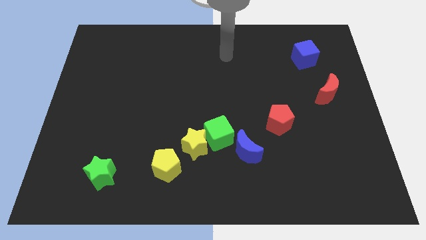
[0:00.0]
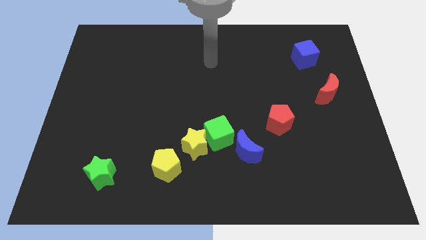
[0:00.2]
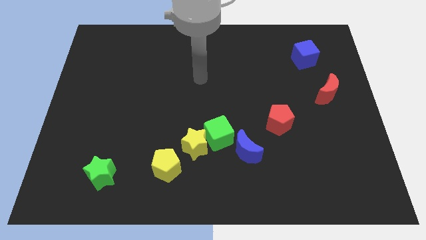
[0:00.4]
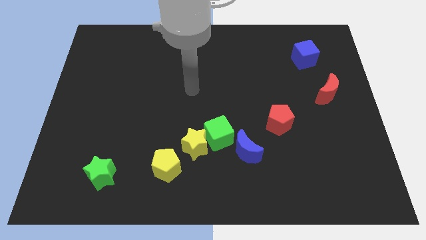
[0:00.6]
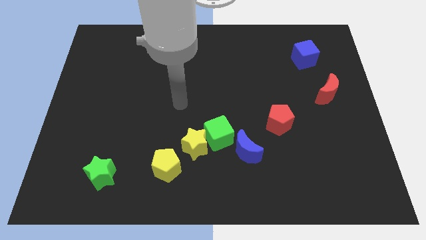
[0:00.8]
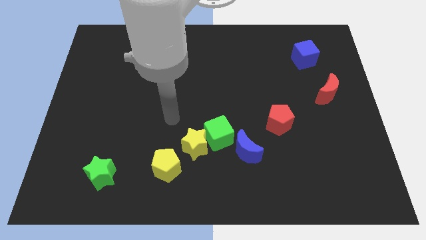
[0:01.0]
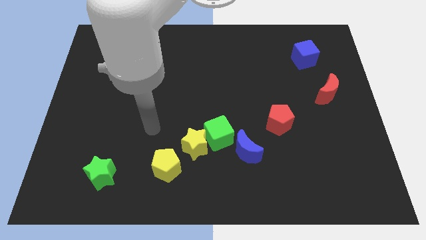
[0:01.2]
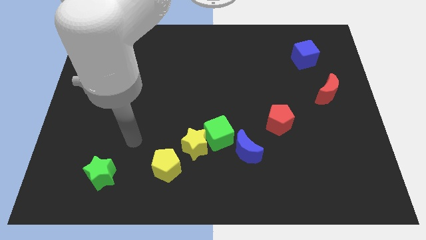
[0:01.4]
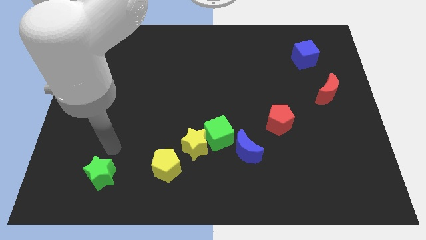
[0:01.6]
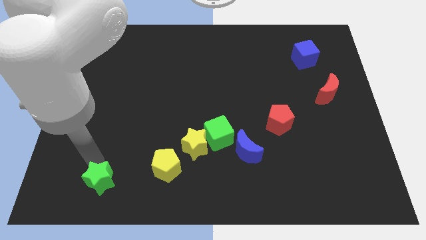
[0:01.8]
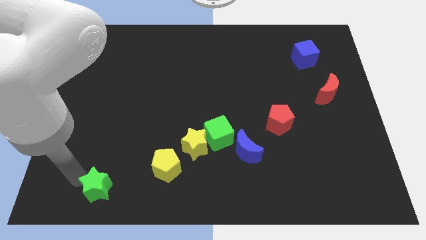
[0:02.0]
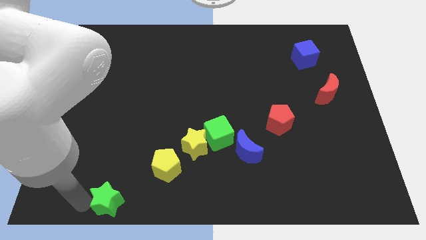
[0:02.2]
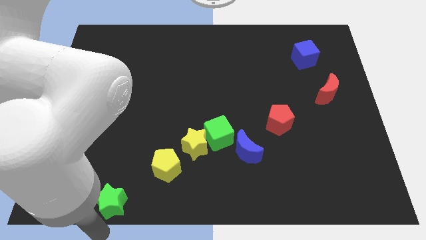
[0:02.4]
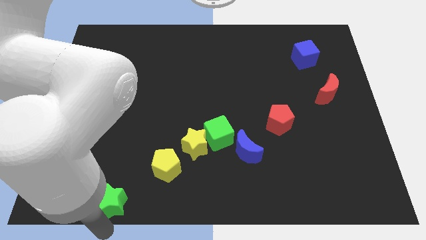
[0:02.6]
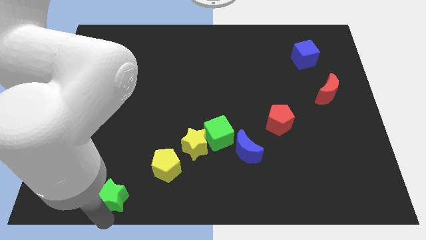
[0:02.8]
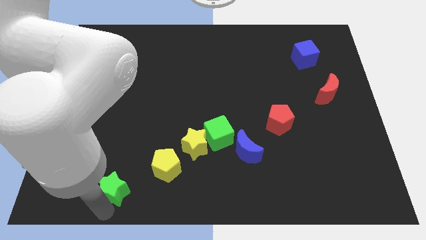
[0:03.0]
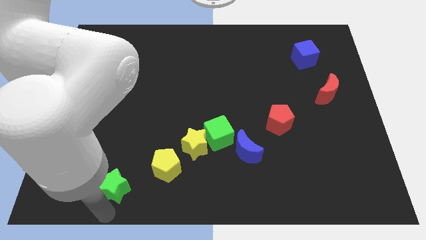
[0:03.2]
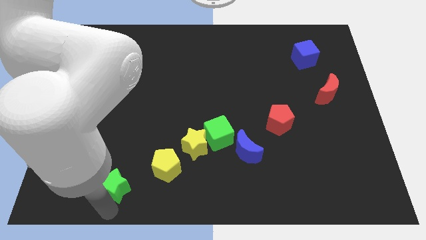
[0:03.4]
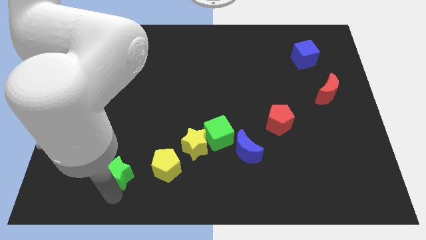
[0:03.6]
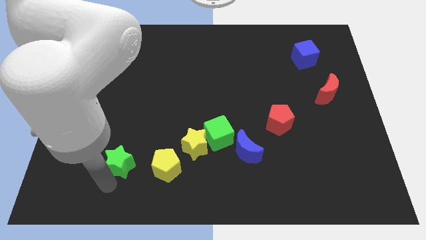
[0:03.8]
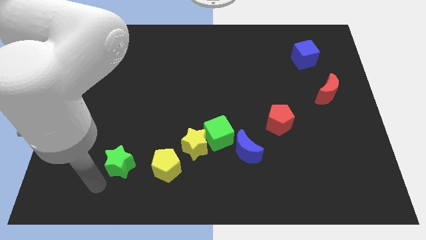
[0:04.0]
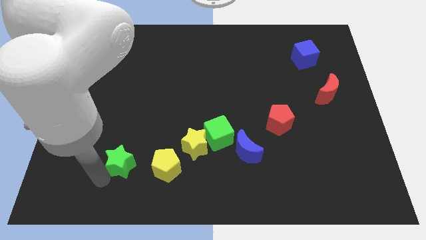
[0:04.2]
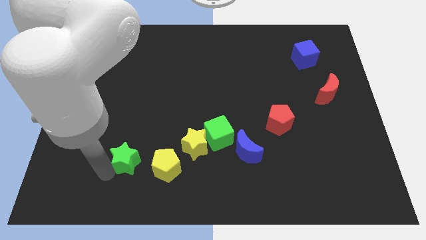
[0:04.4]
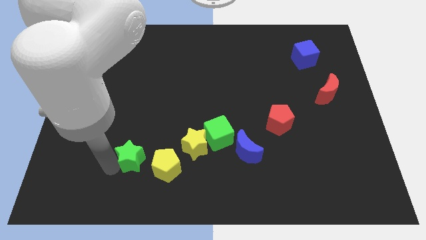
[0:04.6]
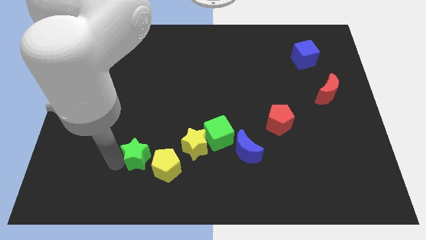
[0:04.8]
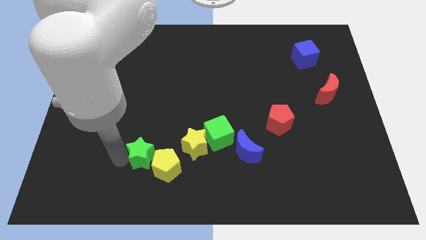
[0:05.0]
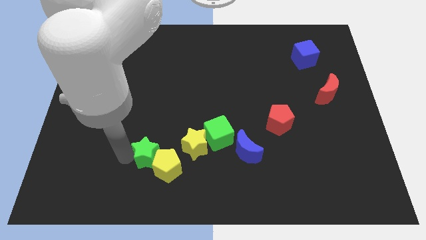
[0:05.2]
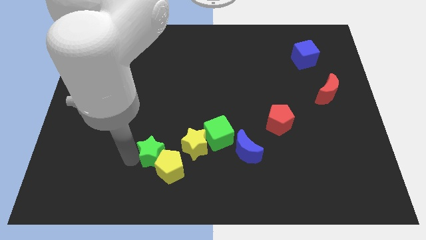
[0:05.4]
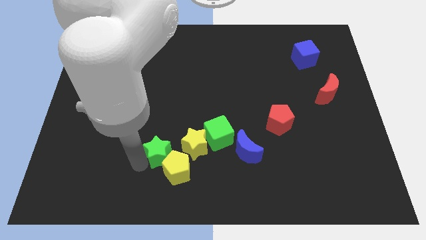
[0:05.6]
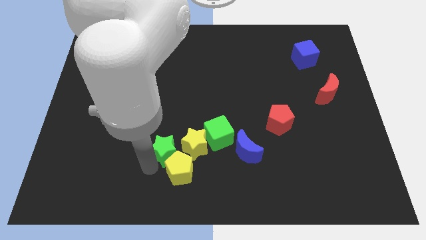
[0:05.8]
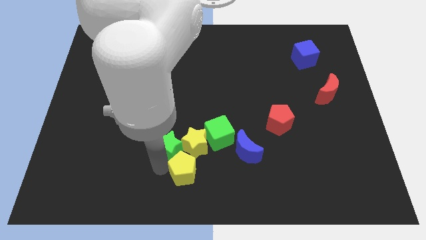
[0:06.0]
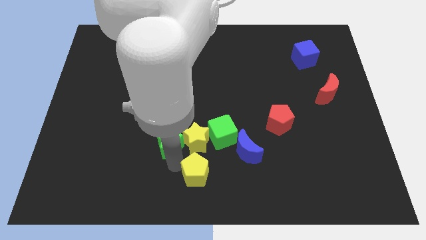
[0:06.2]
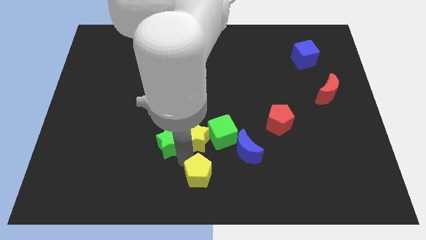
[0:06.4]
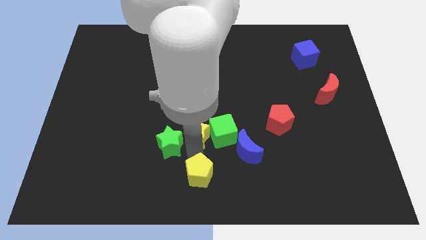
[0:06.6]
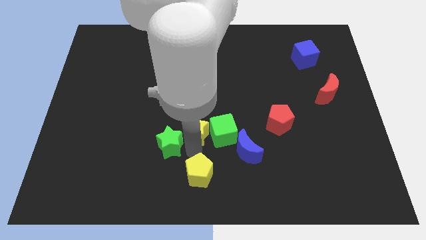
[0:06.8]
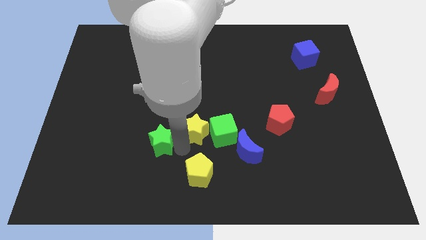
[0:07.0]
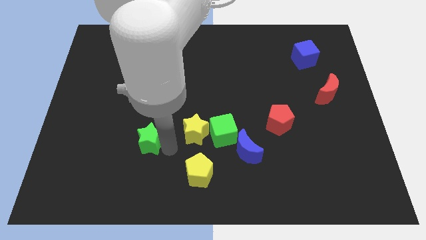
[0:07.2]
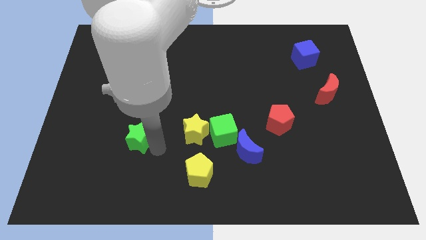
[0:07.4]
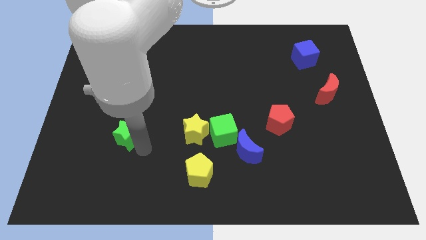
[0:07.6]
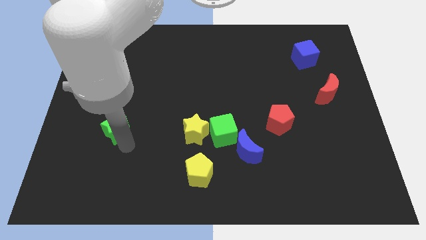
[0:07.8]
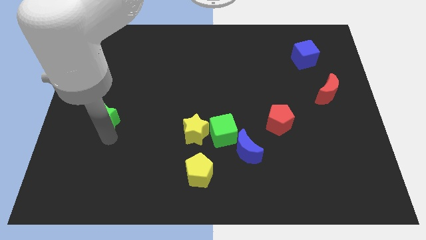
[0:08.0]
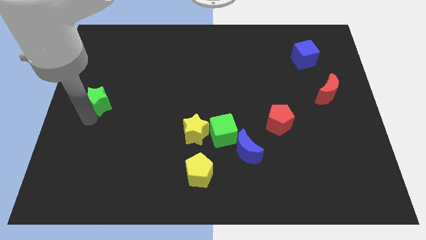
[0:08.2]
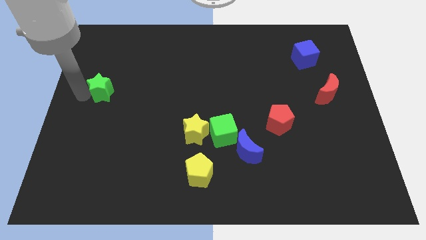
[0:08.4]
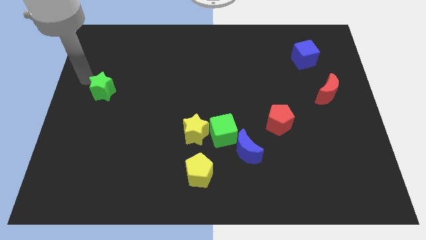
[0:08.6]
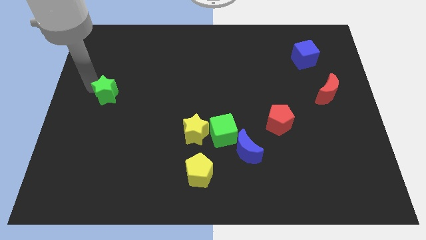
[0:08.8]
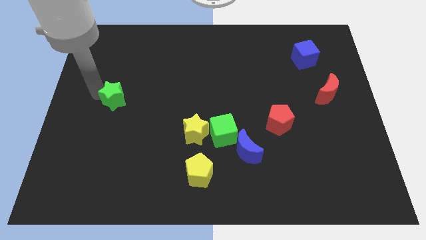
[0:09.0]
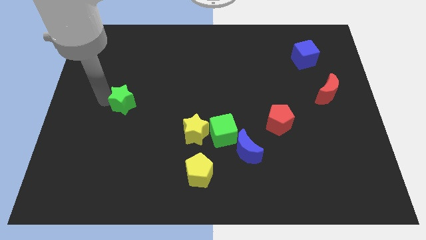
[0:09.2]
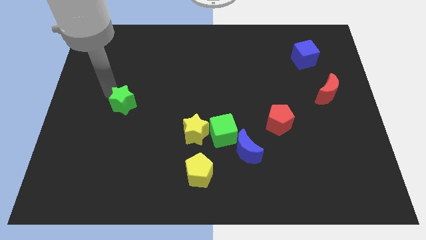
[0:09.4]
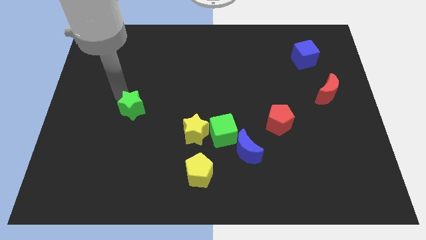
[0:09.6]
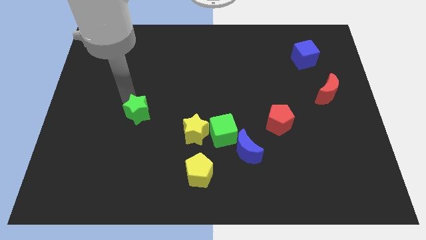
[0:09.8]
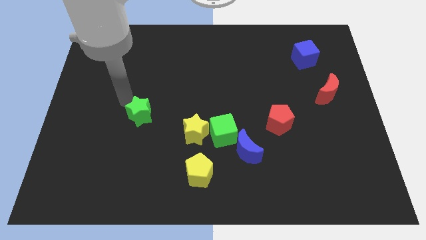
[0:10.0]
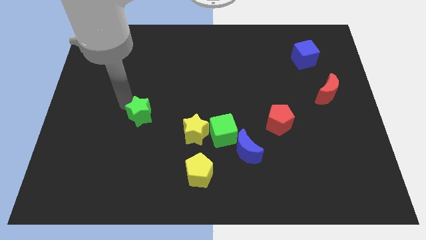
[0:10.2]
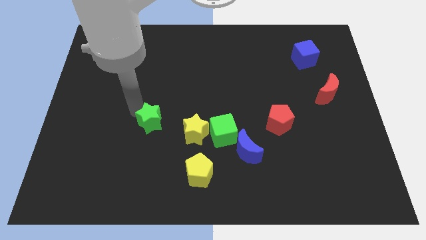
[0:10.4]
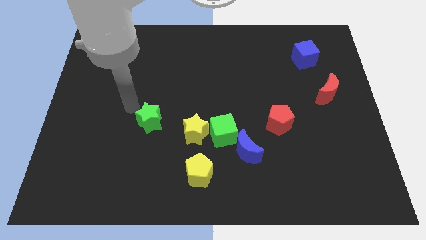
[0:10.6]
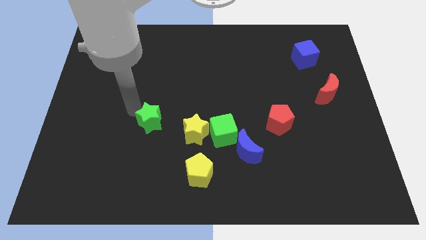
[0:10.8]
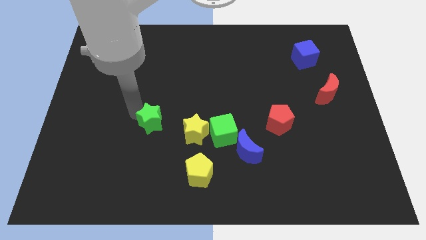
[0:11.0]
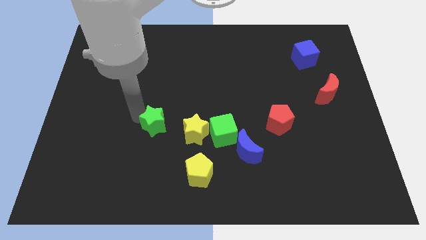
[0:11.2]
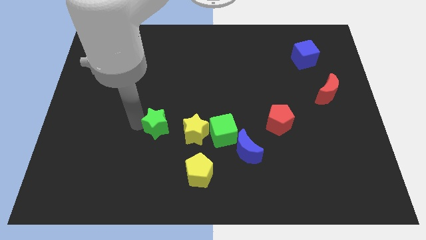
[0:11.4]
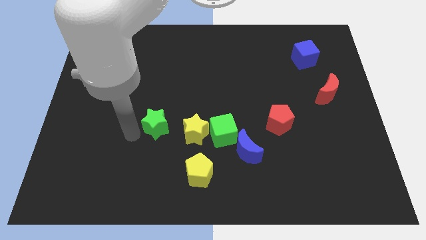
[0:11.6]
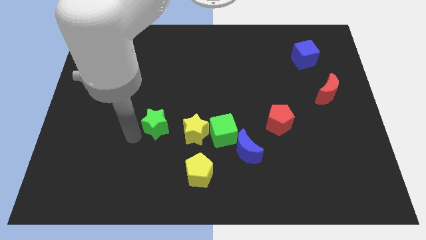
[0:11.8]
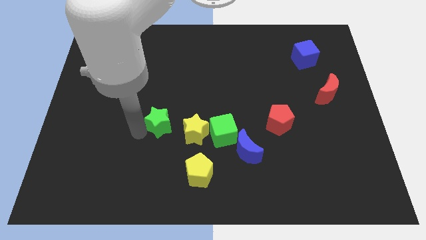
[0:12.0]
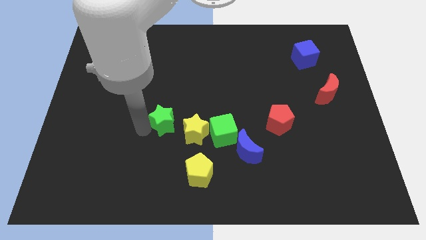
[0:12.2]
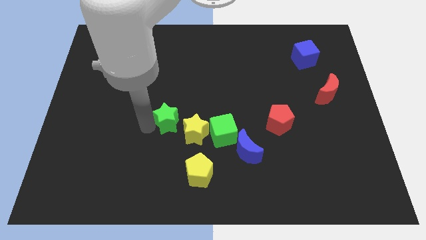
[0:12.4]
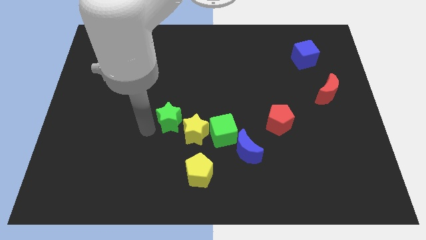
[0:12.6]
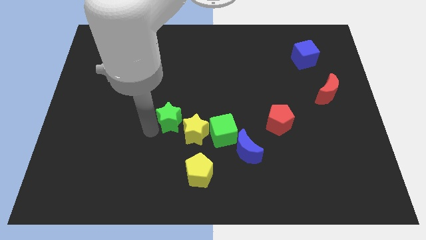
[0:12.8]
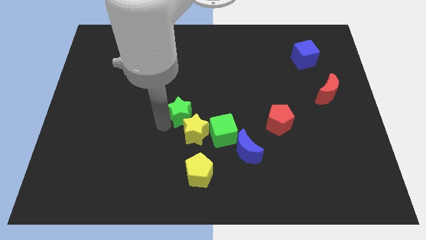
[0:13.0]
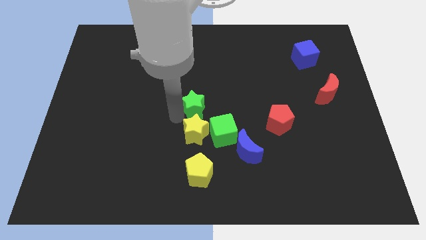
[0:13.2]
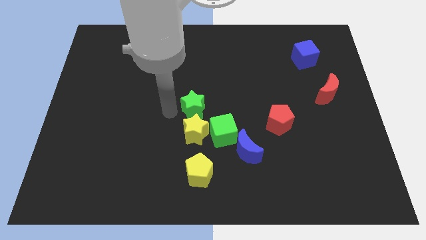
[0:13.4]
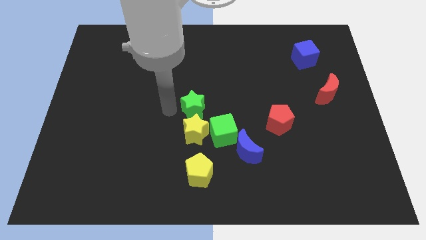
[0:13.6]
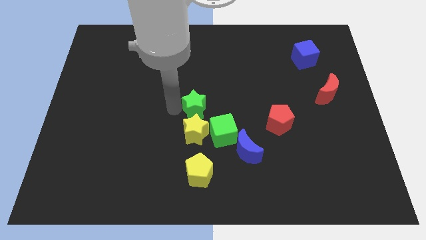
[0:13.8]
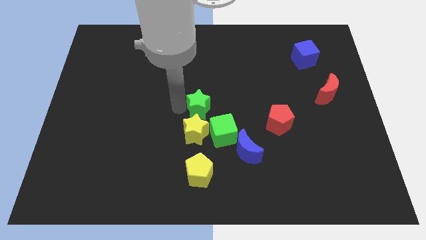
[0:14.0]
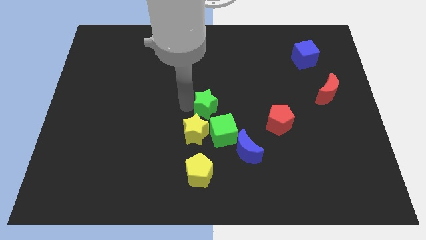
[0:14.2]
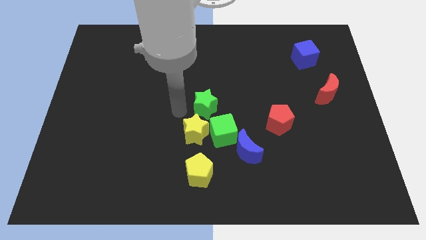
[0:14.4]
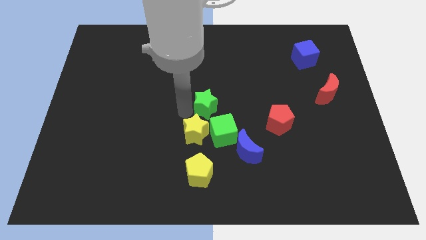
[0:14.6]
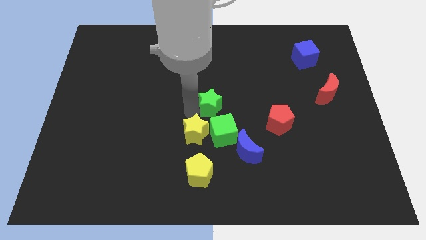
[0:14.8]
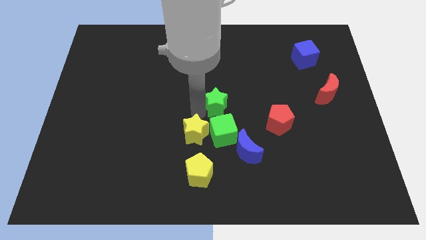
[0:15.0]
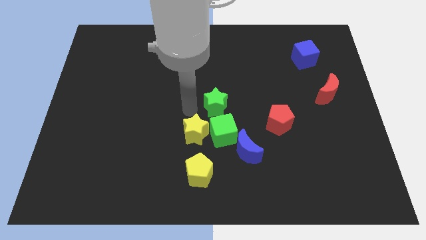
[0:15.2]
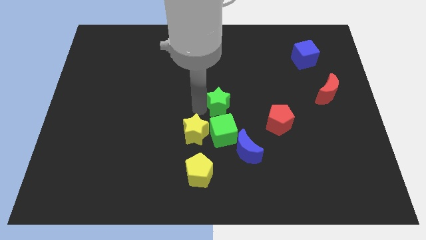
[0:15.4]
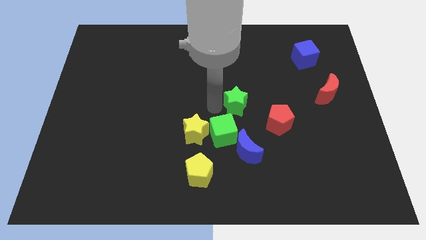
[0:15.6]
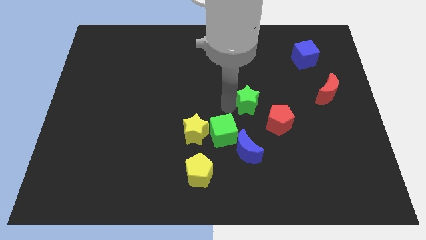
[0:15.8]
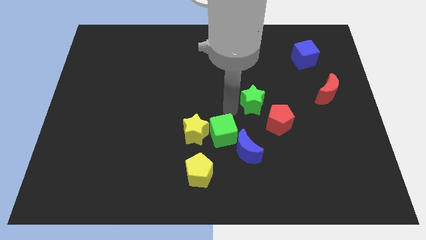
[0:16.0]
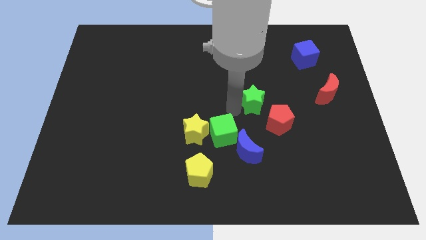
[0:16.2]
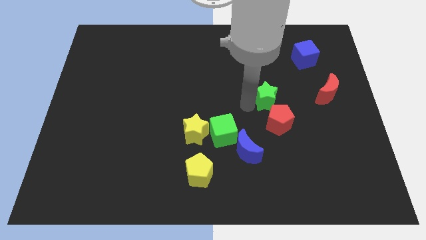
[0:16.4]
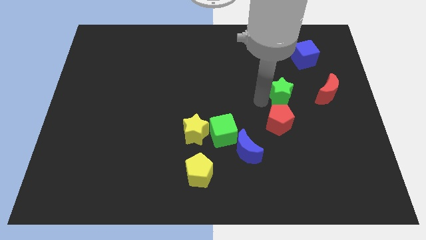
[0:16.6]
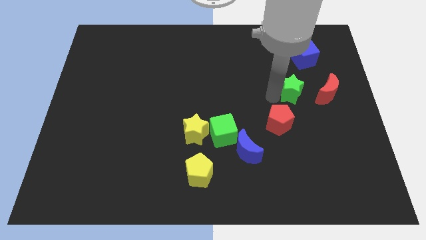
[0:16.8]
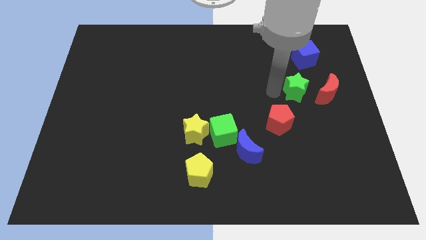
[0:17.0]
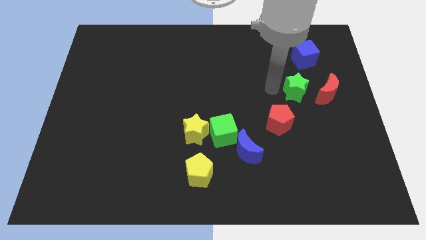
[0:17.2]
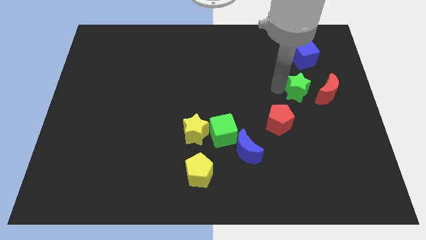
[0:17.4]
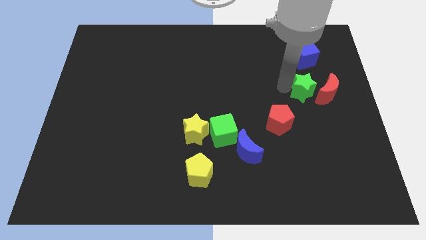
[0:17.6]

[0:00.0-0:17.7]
slide the green star next to the red moon
